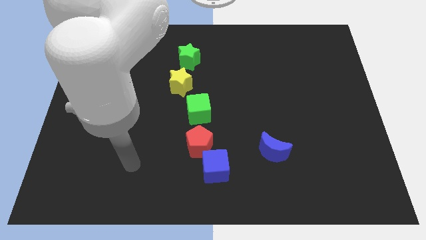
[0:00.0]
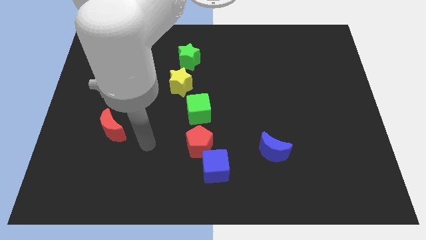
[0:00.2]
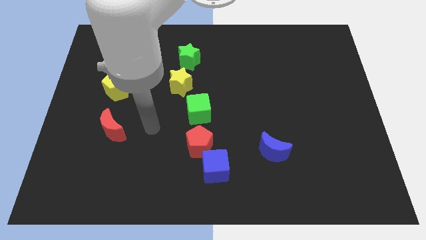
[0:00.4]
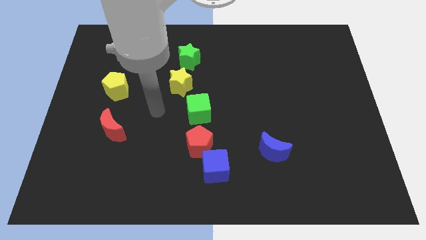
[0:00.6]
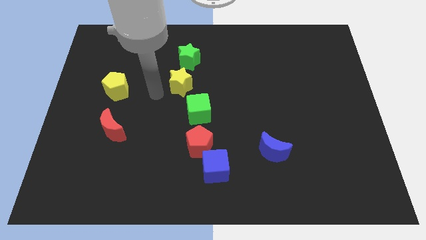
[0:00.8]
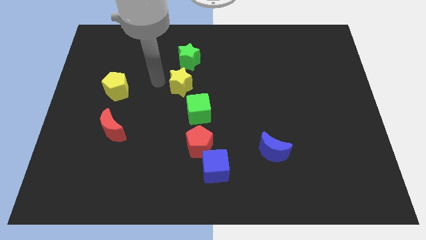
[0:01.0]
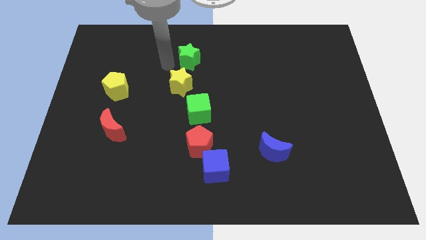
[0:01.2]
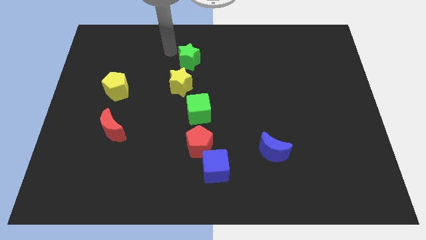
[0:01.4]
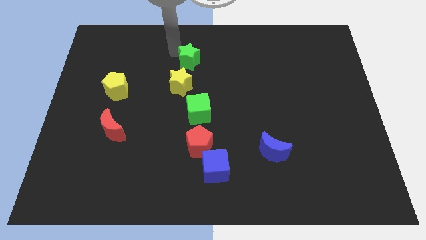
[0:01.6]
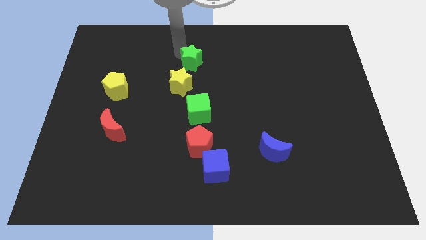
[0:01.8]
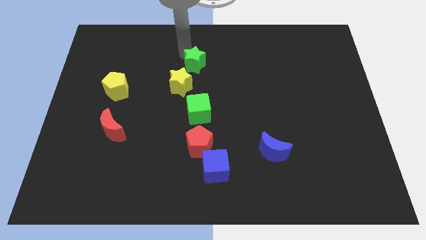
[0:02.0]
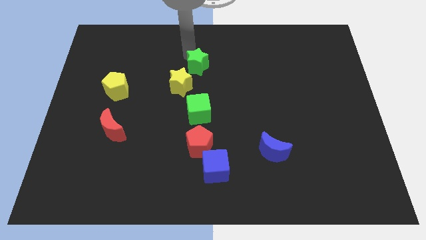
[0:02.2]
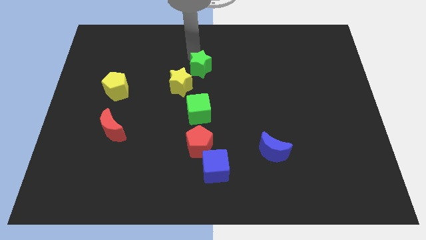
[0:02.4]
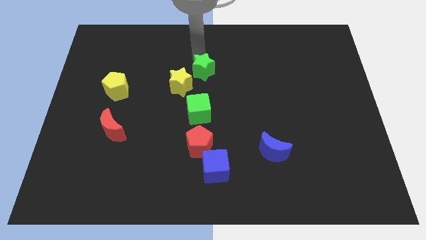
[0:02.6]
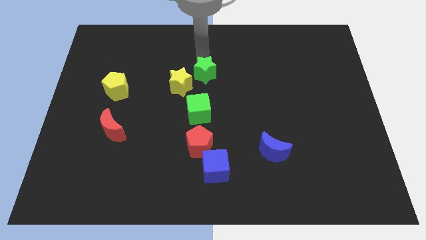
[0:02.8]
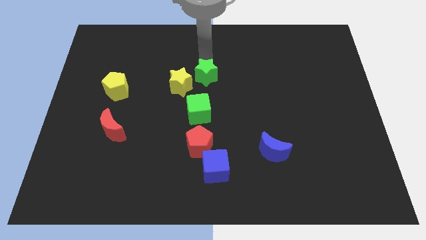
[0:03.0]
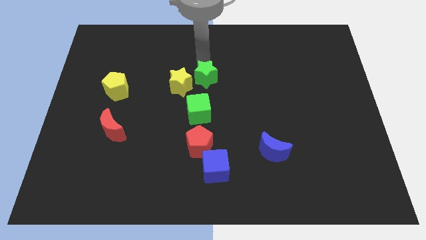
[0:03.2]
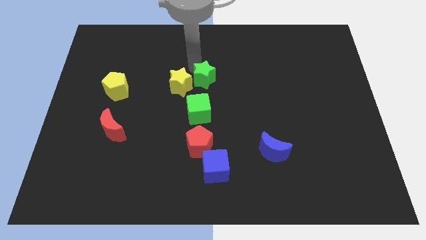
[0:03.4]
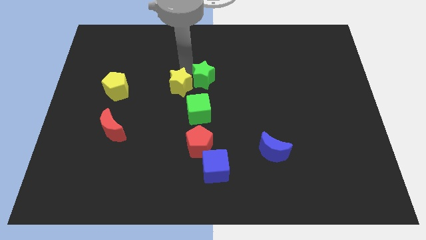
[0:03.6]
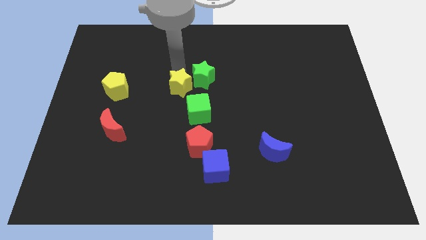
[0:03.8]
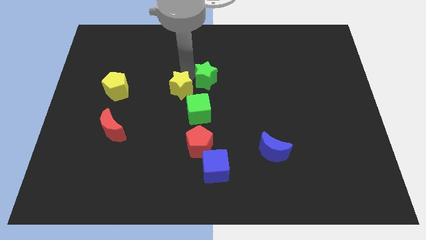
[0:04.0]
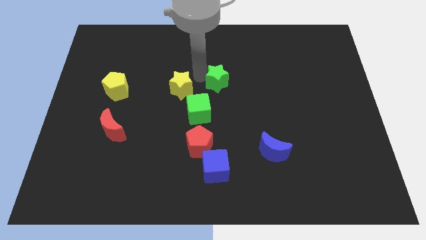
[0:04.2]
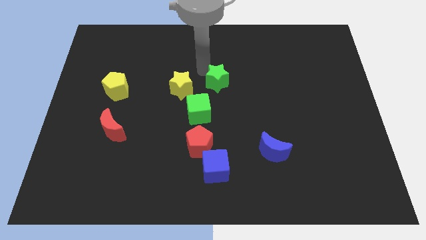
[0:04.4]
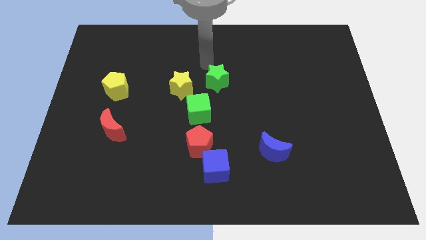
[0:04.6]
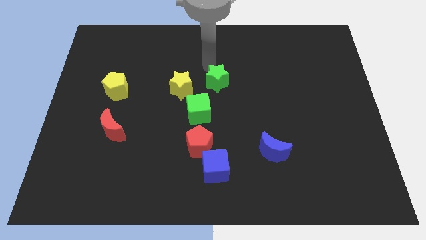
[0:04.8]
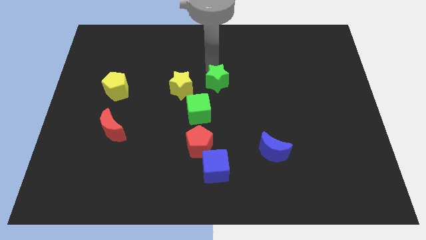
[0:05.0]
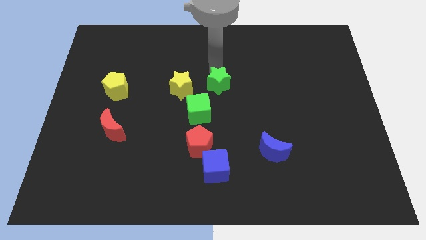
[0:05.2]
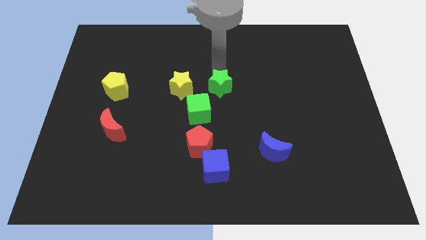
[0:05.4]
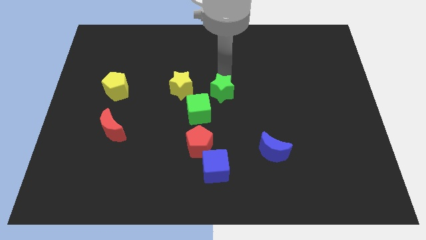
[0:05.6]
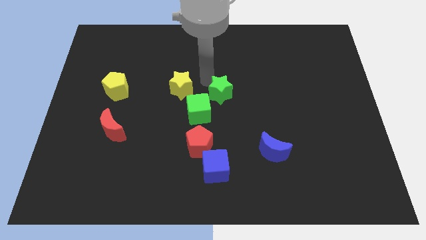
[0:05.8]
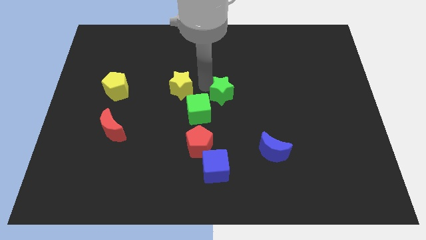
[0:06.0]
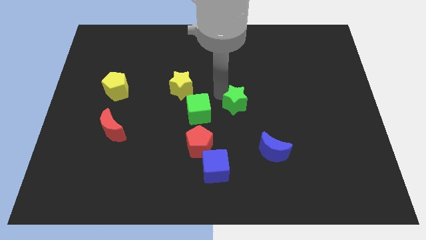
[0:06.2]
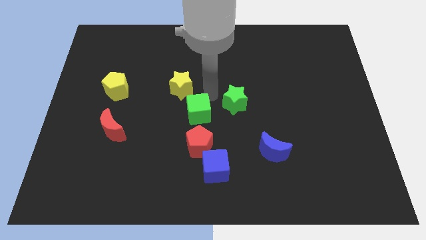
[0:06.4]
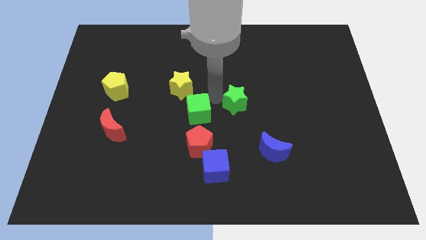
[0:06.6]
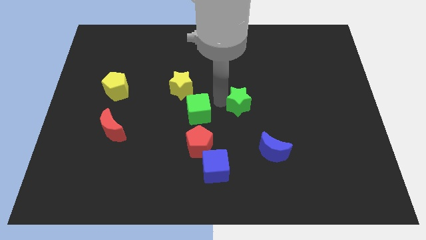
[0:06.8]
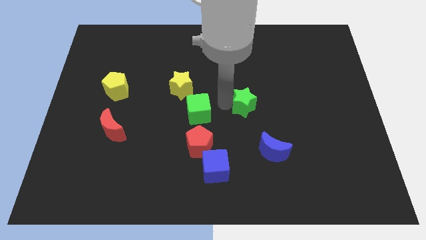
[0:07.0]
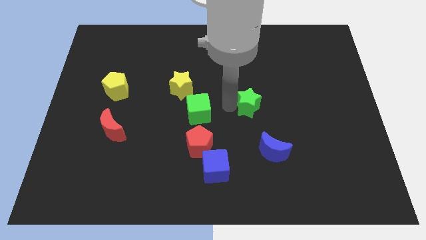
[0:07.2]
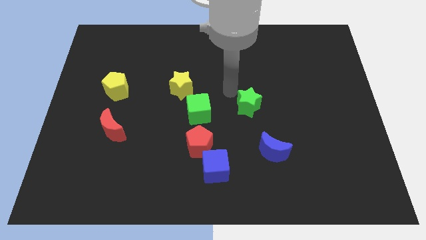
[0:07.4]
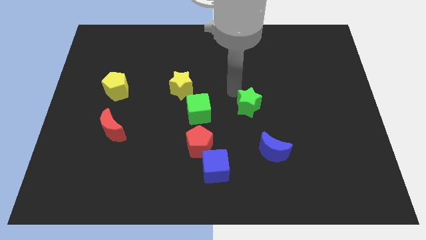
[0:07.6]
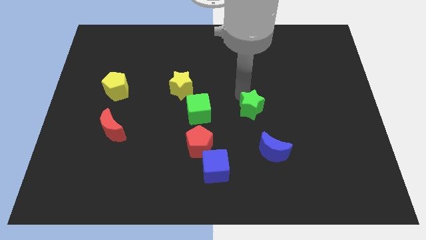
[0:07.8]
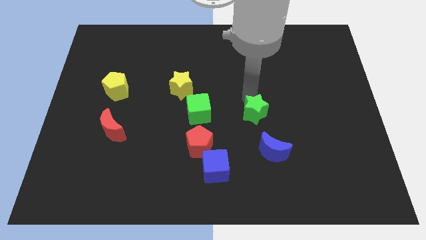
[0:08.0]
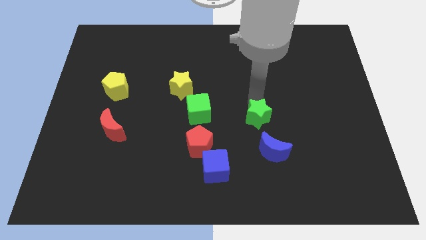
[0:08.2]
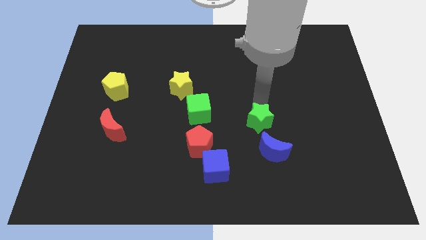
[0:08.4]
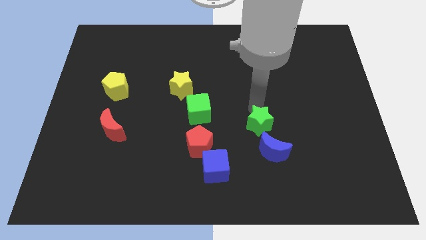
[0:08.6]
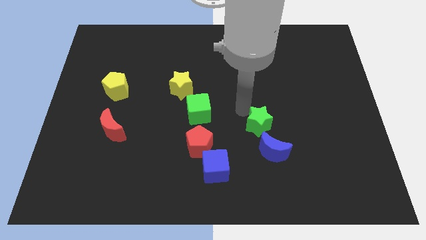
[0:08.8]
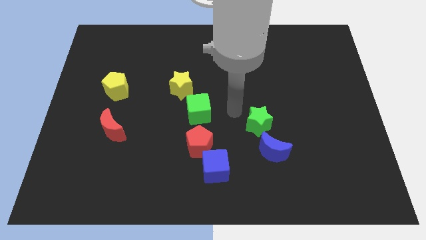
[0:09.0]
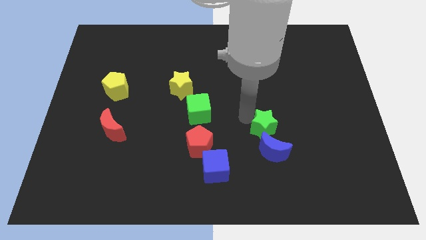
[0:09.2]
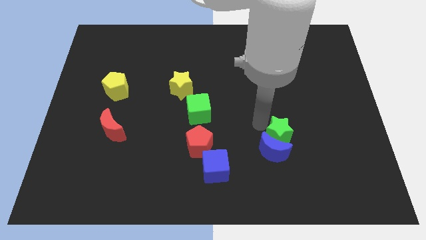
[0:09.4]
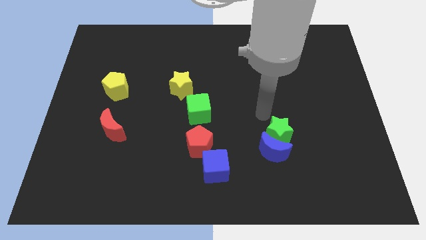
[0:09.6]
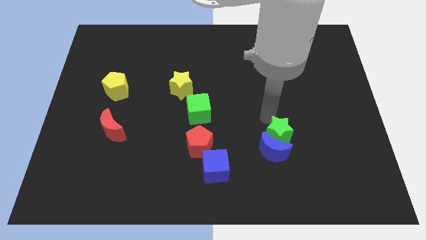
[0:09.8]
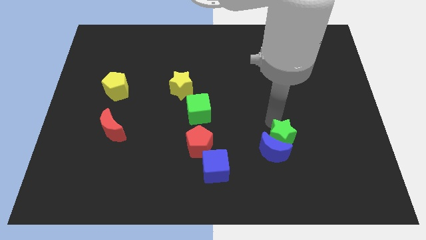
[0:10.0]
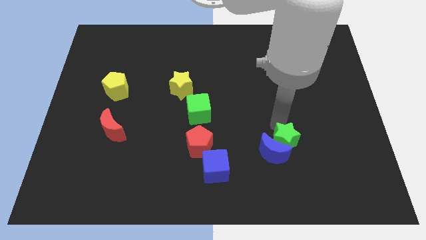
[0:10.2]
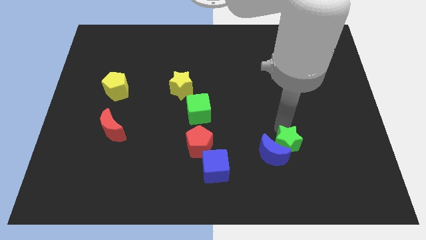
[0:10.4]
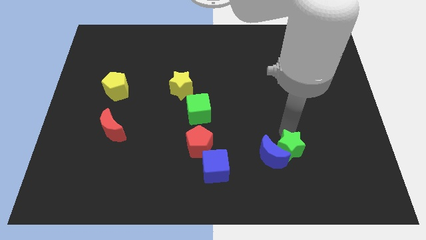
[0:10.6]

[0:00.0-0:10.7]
push the green star to the bottom right of the blue moon

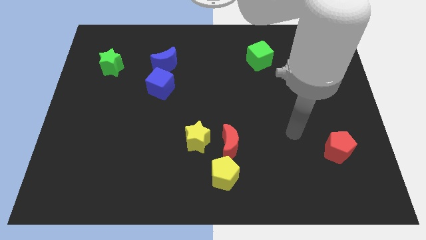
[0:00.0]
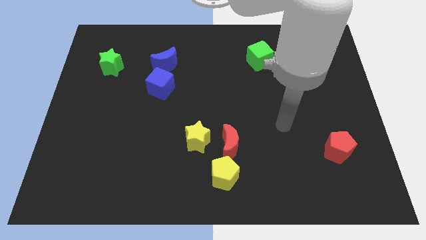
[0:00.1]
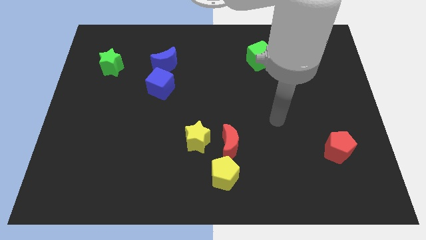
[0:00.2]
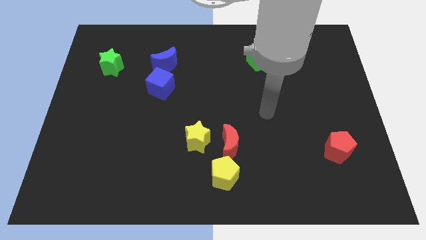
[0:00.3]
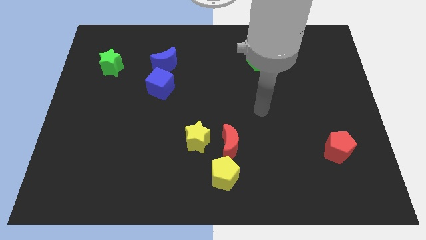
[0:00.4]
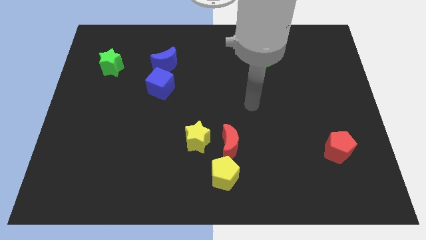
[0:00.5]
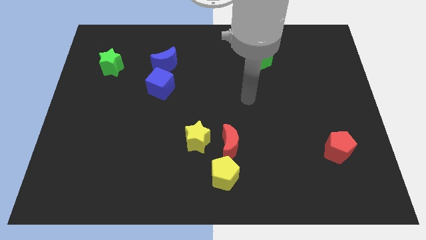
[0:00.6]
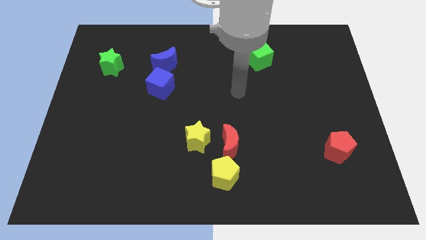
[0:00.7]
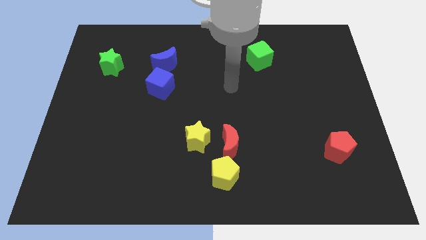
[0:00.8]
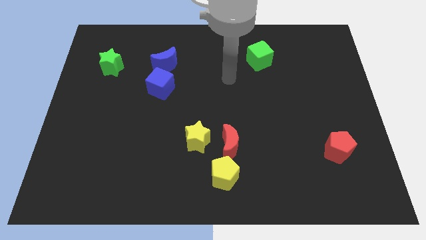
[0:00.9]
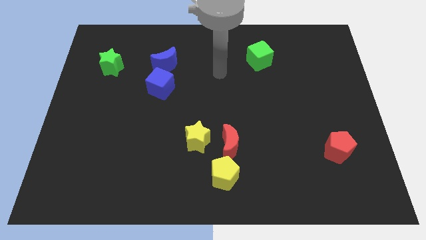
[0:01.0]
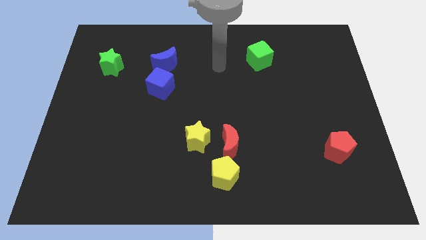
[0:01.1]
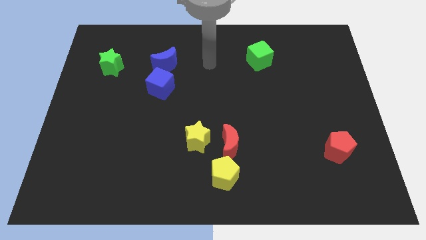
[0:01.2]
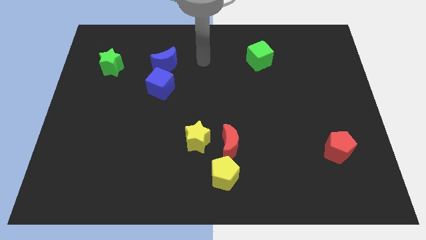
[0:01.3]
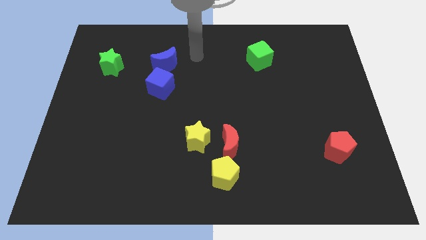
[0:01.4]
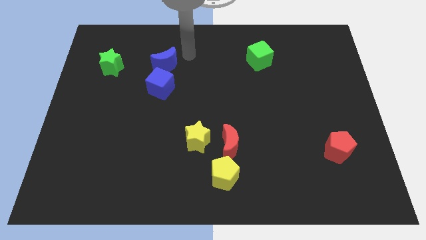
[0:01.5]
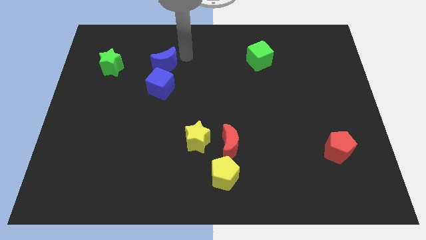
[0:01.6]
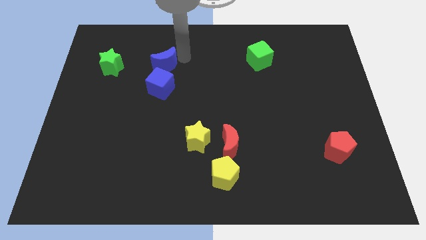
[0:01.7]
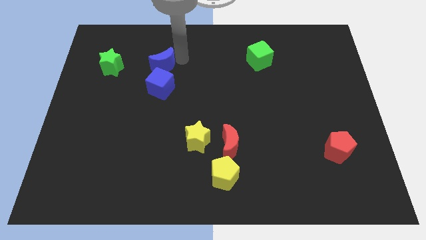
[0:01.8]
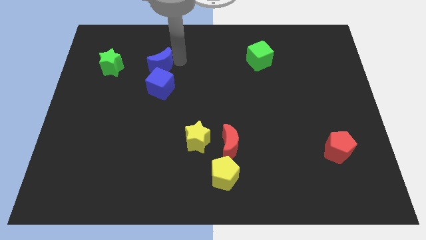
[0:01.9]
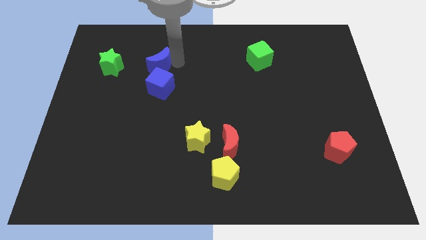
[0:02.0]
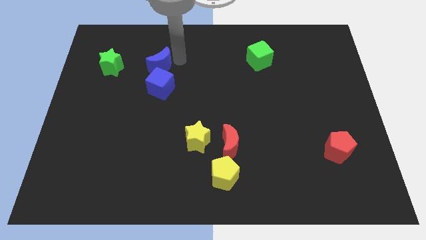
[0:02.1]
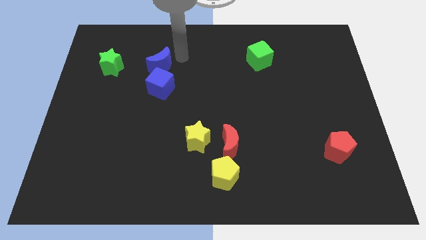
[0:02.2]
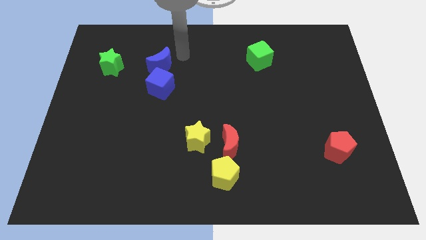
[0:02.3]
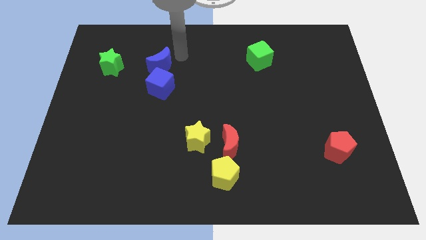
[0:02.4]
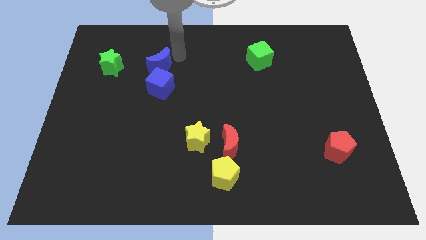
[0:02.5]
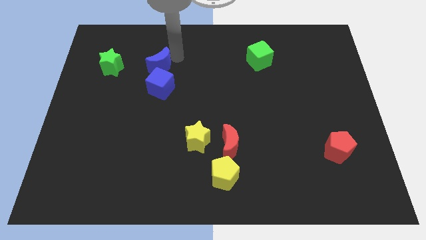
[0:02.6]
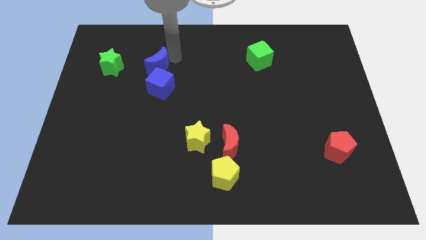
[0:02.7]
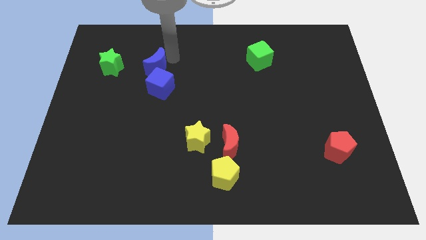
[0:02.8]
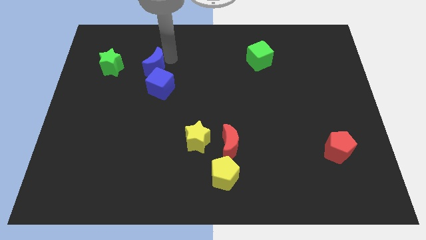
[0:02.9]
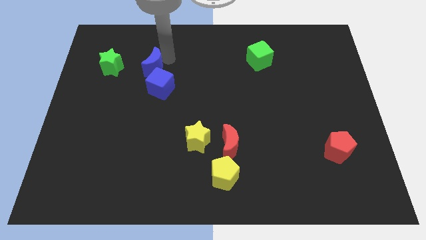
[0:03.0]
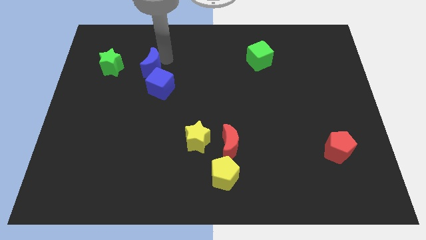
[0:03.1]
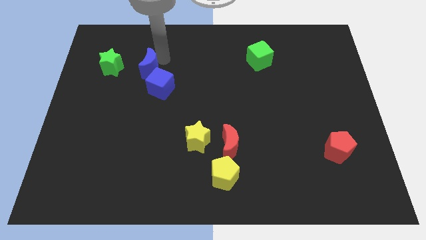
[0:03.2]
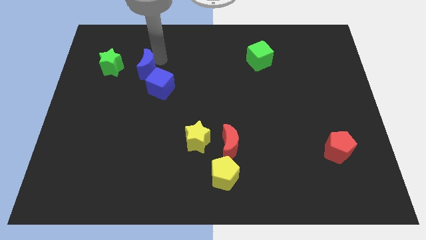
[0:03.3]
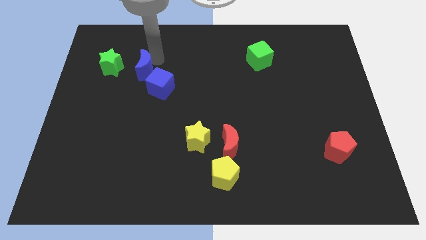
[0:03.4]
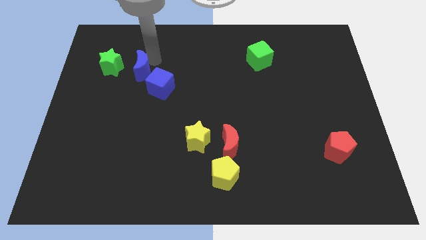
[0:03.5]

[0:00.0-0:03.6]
put the blue moon diagonally down and to the right of the green star
